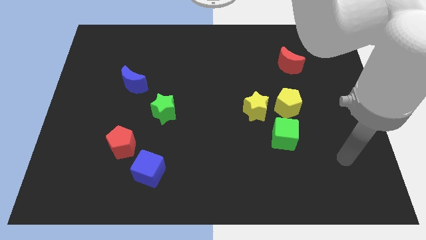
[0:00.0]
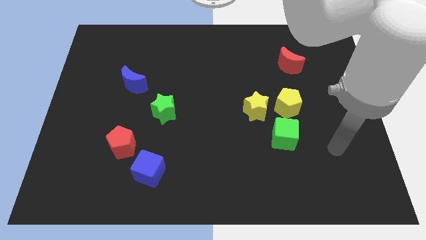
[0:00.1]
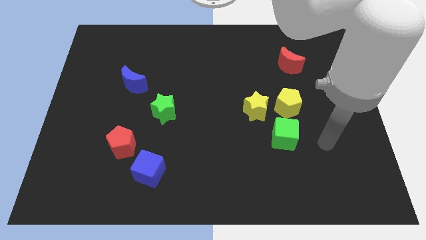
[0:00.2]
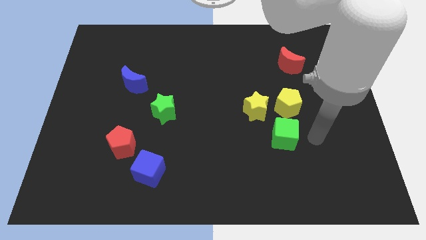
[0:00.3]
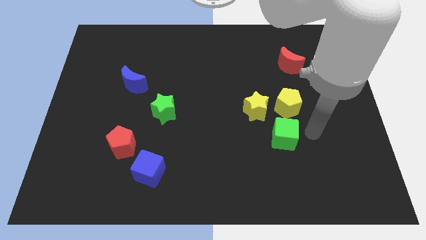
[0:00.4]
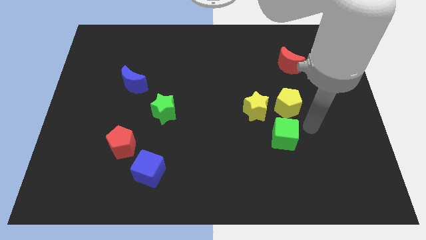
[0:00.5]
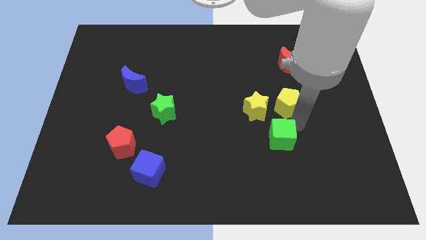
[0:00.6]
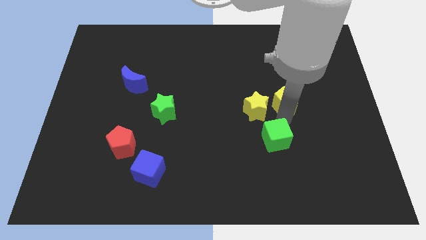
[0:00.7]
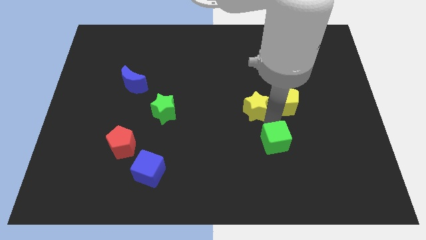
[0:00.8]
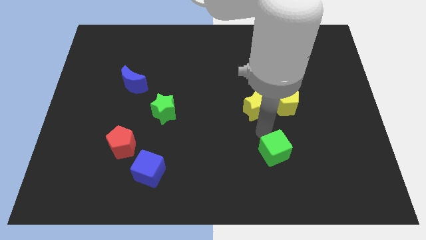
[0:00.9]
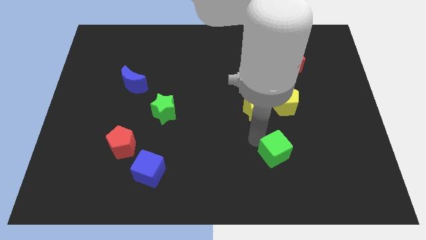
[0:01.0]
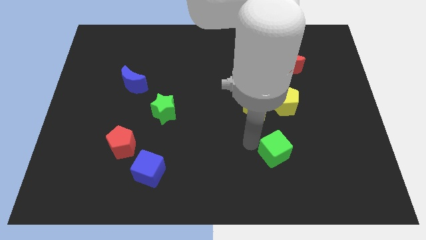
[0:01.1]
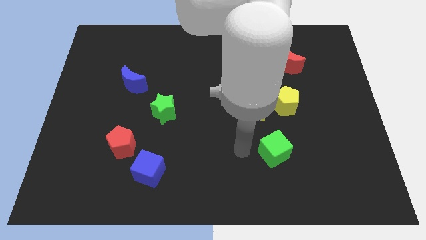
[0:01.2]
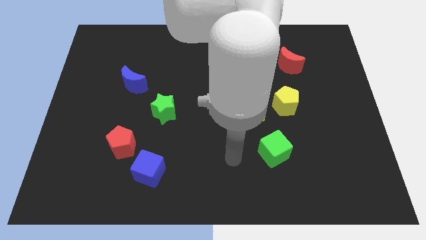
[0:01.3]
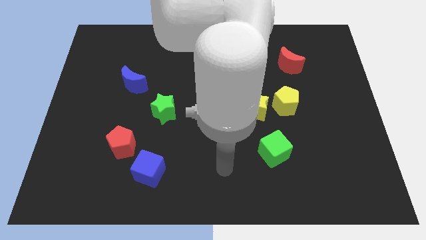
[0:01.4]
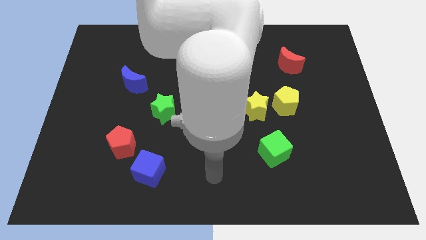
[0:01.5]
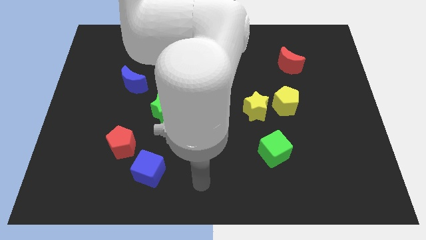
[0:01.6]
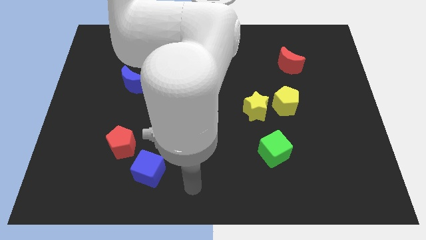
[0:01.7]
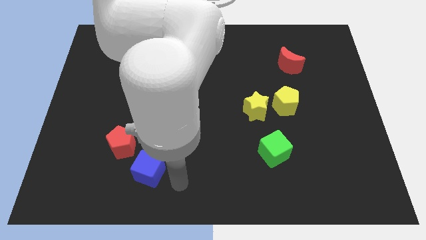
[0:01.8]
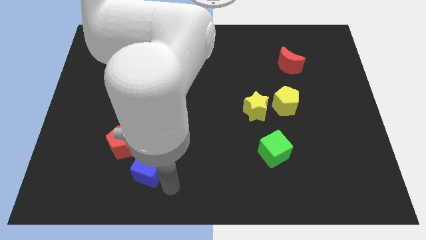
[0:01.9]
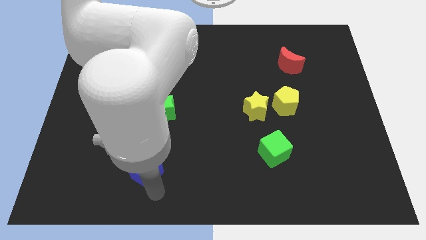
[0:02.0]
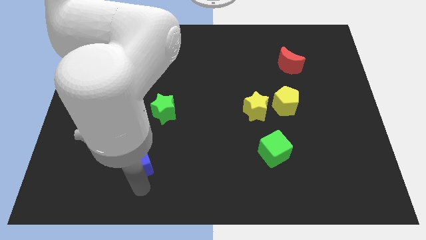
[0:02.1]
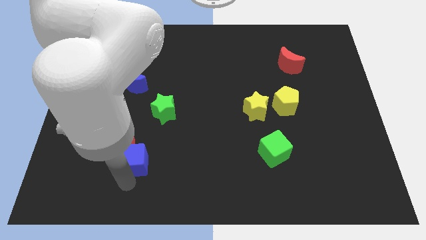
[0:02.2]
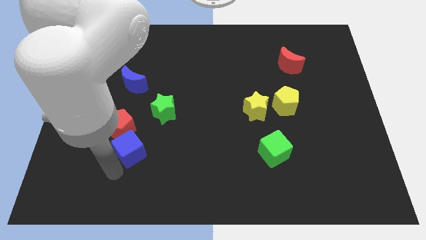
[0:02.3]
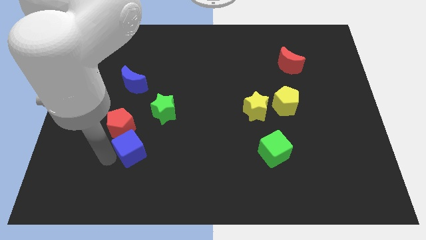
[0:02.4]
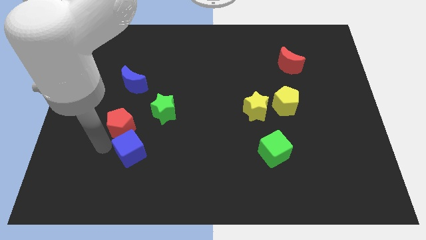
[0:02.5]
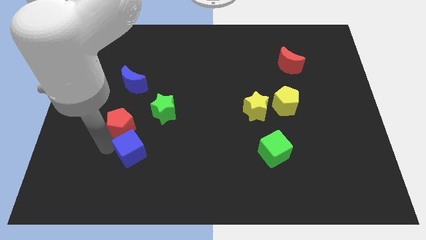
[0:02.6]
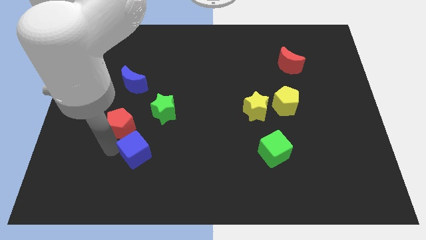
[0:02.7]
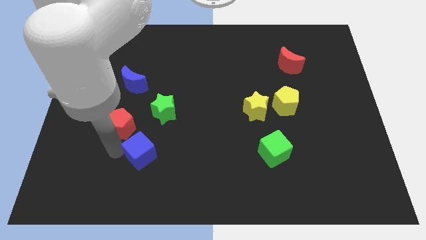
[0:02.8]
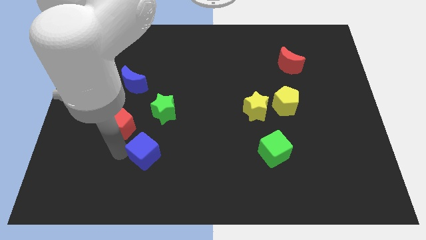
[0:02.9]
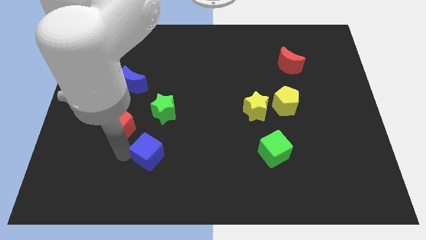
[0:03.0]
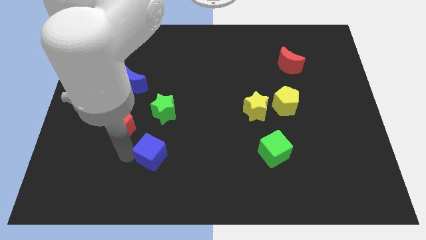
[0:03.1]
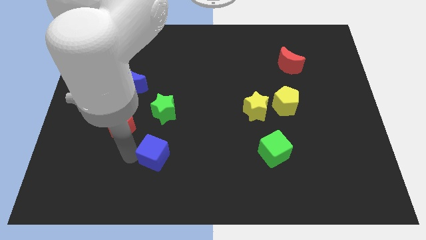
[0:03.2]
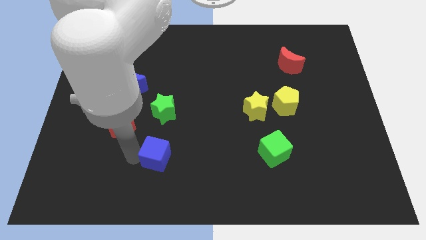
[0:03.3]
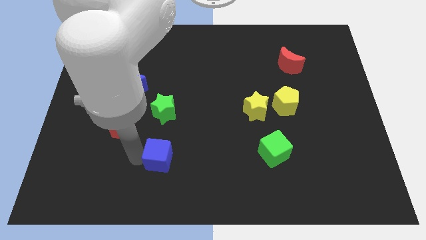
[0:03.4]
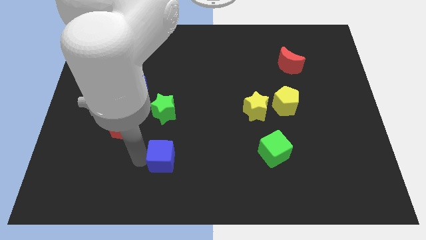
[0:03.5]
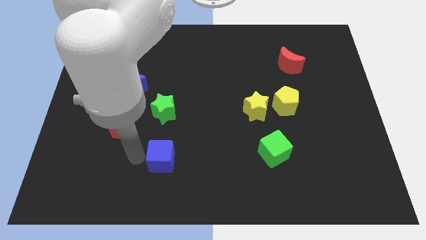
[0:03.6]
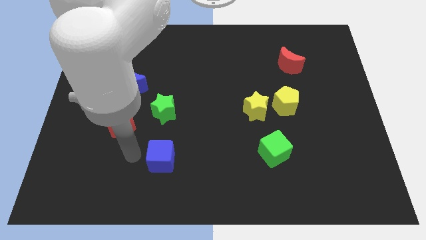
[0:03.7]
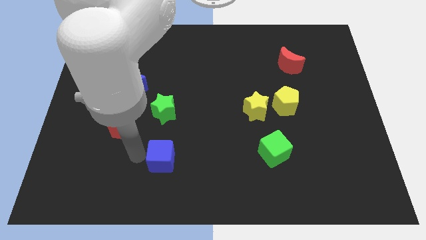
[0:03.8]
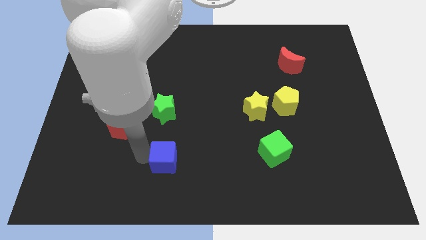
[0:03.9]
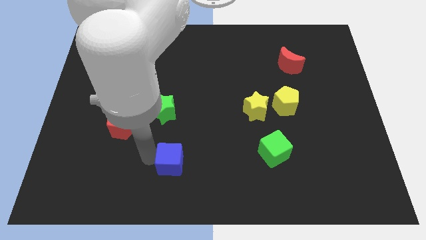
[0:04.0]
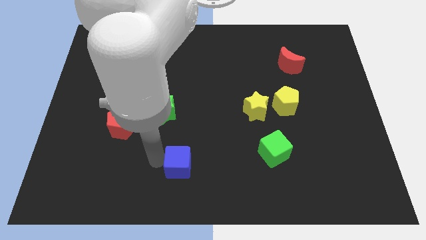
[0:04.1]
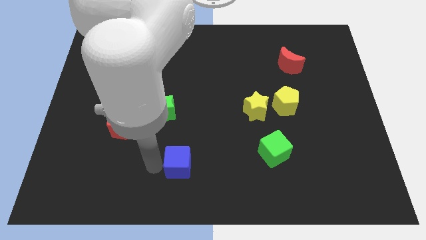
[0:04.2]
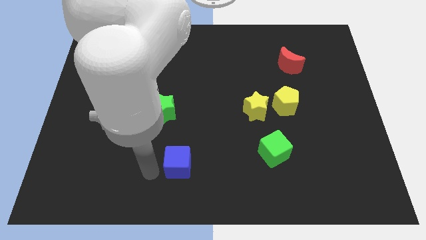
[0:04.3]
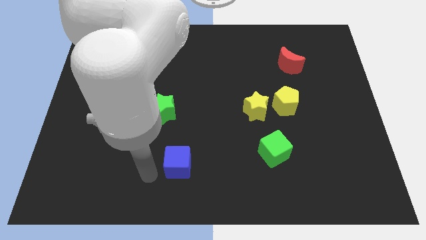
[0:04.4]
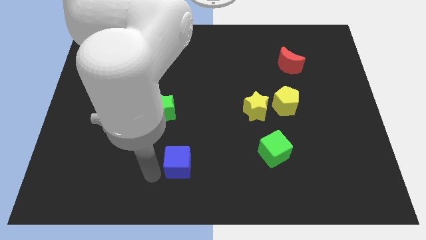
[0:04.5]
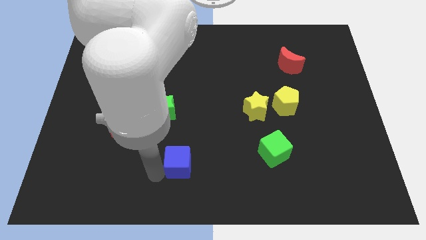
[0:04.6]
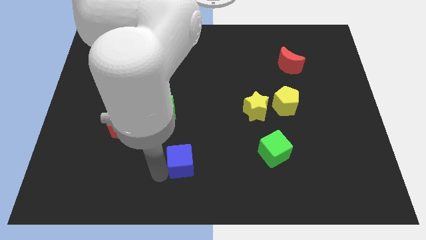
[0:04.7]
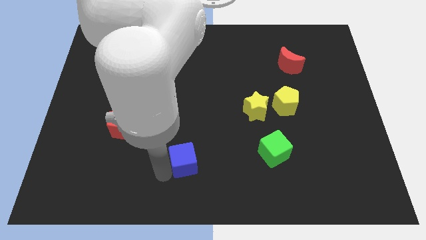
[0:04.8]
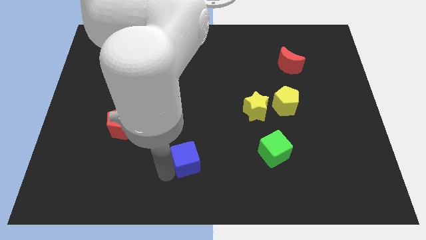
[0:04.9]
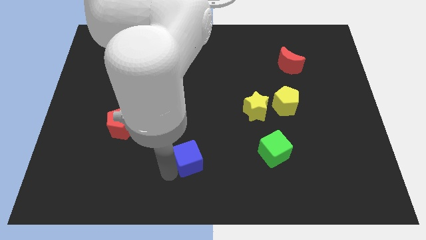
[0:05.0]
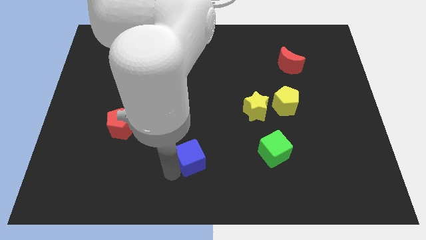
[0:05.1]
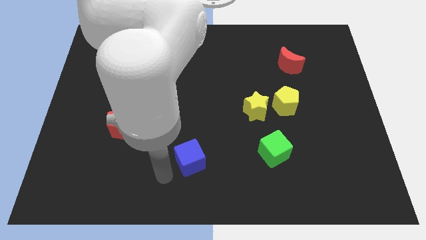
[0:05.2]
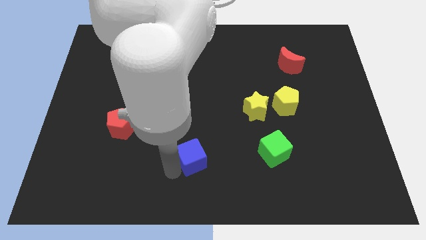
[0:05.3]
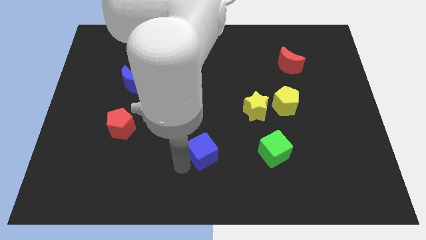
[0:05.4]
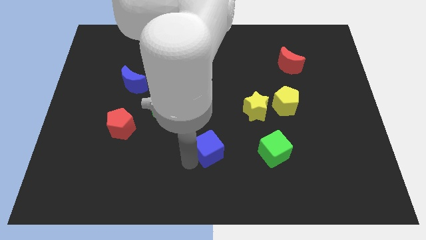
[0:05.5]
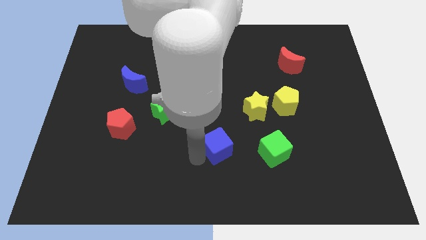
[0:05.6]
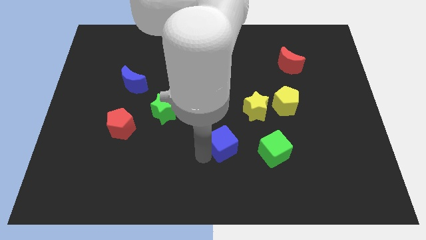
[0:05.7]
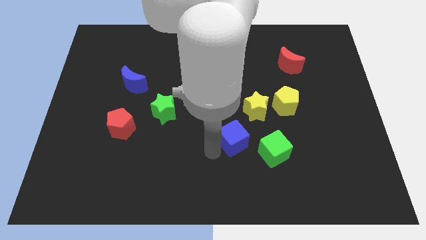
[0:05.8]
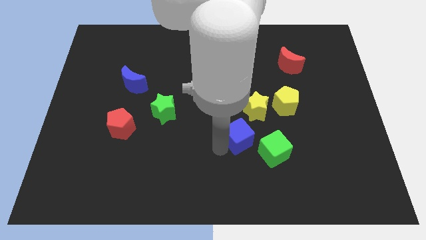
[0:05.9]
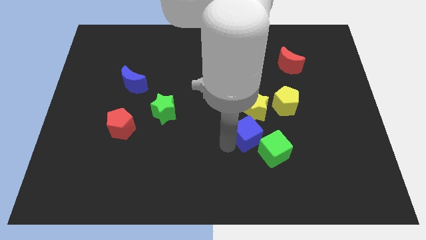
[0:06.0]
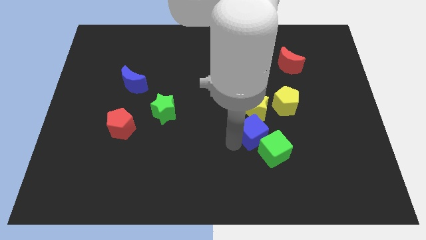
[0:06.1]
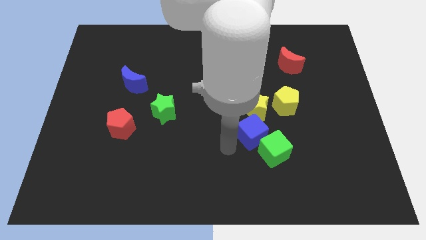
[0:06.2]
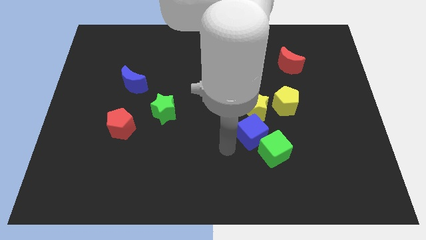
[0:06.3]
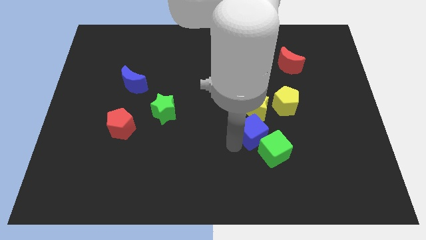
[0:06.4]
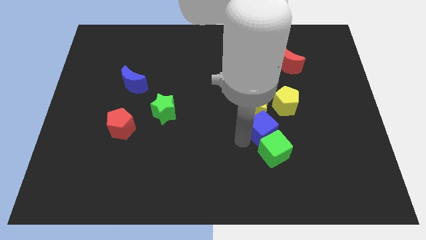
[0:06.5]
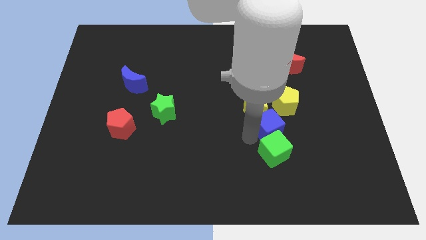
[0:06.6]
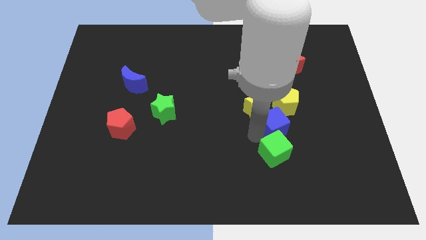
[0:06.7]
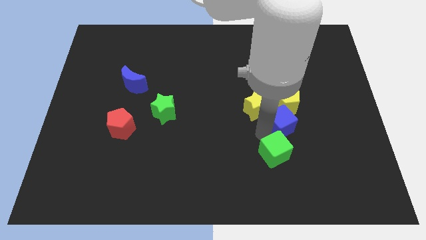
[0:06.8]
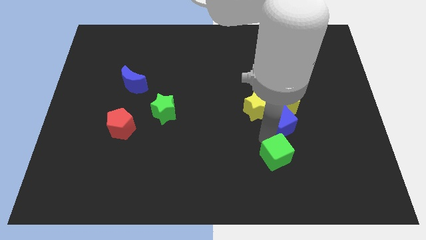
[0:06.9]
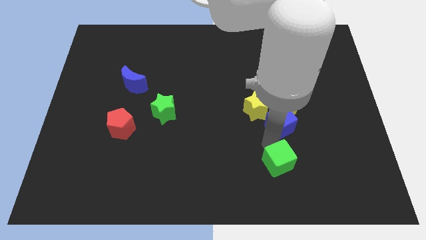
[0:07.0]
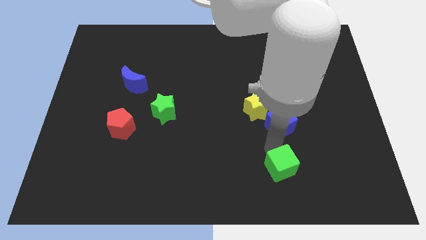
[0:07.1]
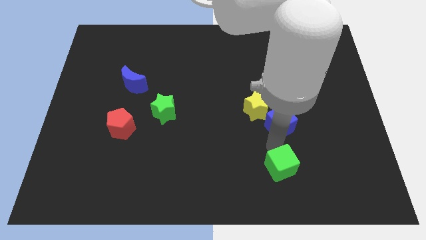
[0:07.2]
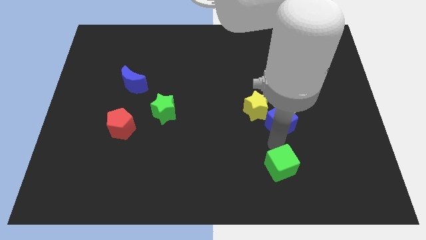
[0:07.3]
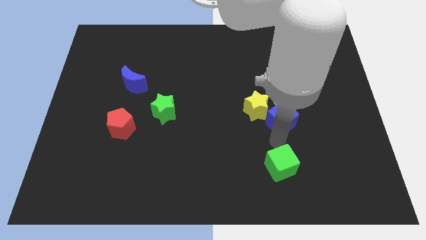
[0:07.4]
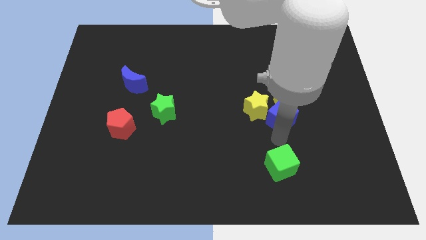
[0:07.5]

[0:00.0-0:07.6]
put the blue cube close to the yellow pentagon
